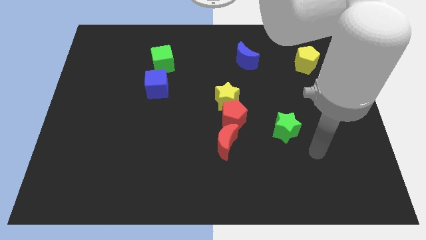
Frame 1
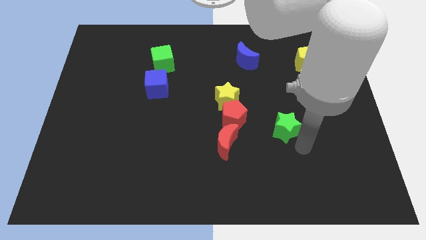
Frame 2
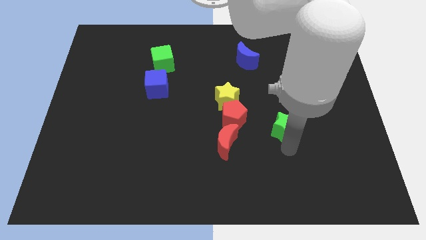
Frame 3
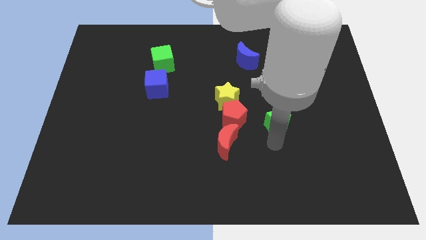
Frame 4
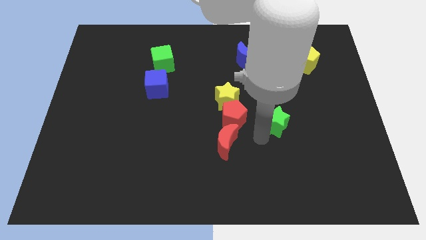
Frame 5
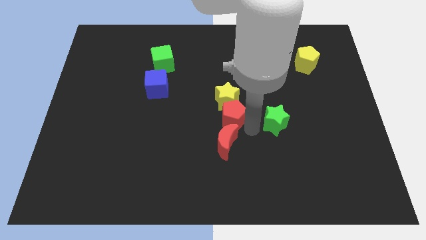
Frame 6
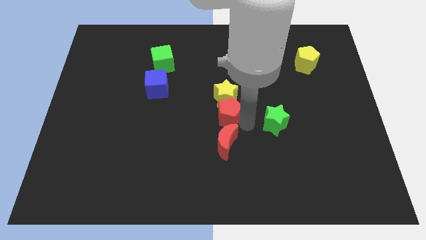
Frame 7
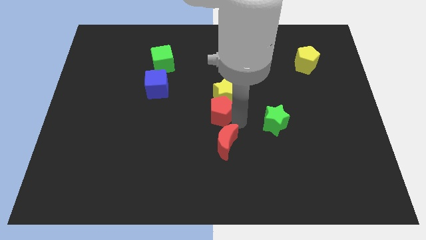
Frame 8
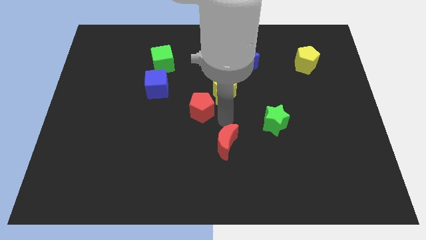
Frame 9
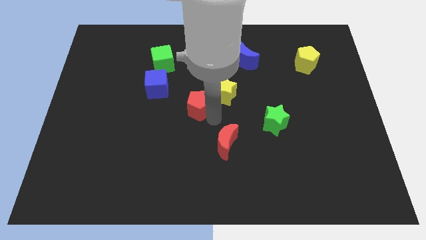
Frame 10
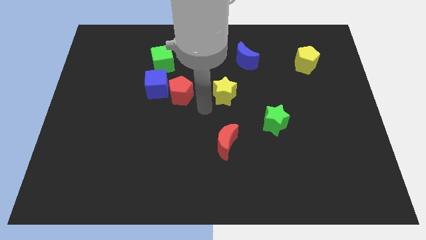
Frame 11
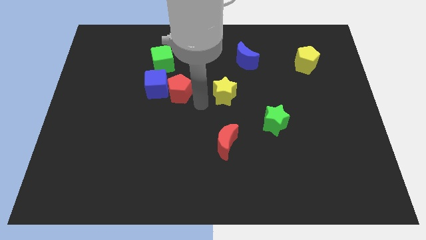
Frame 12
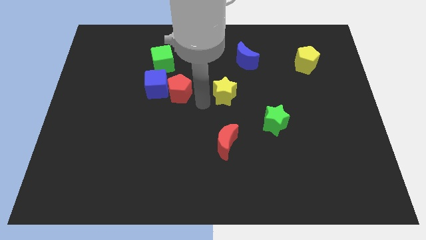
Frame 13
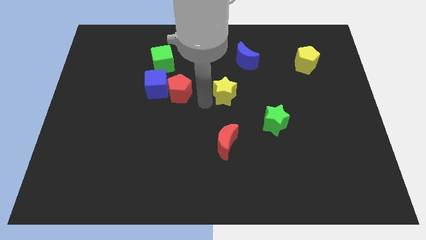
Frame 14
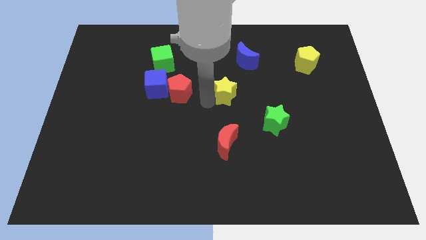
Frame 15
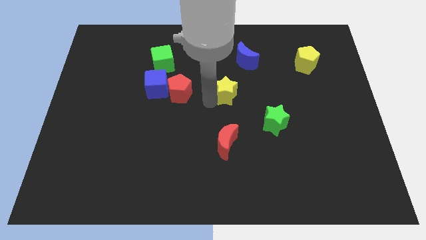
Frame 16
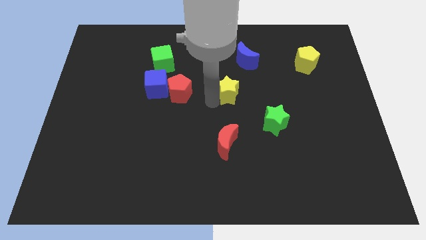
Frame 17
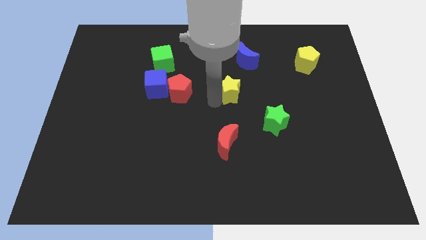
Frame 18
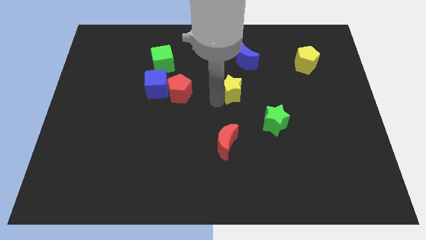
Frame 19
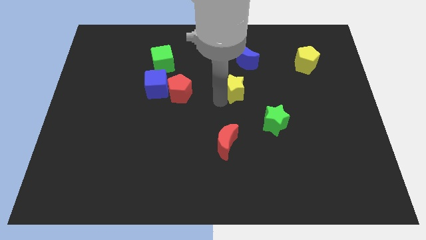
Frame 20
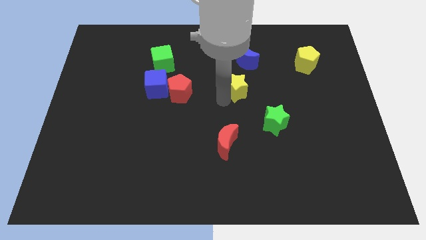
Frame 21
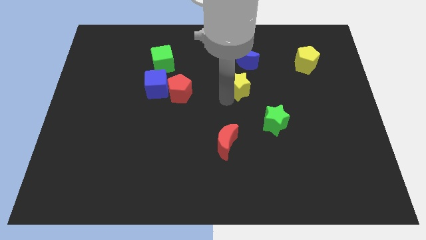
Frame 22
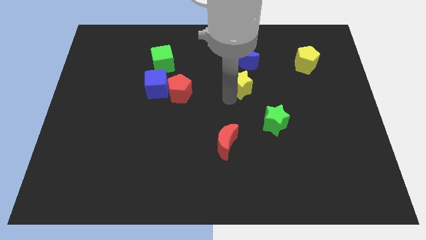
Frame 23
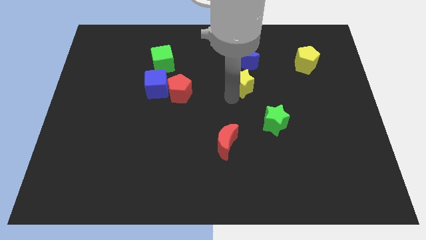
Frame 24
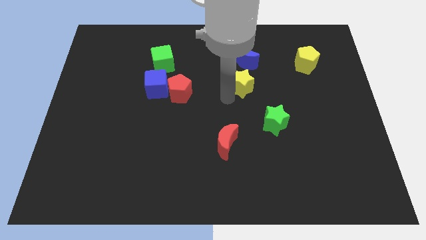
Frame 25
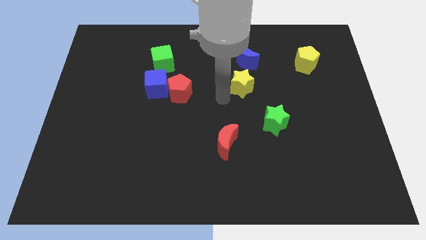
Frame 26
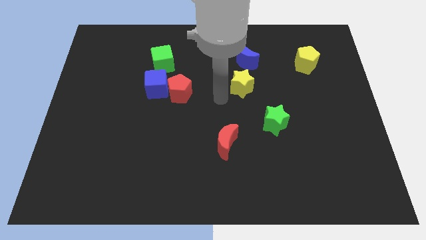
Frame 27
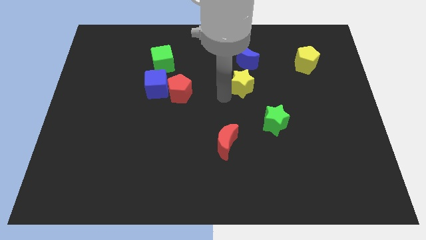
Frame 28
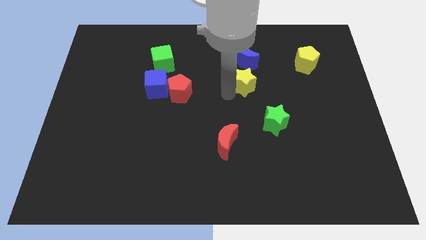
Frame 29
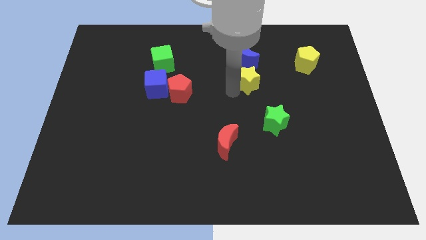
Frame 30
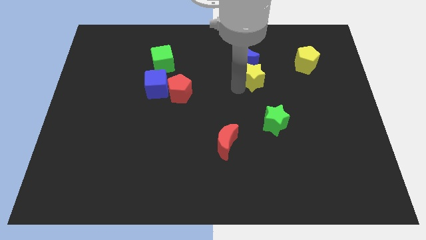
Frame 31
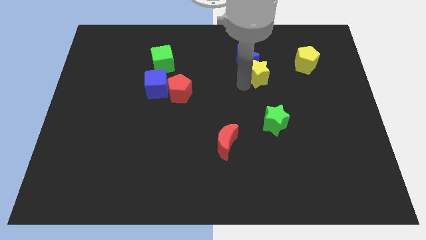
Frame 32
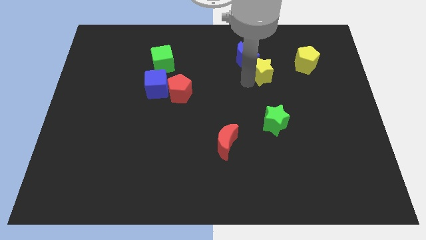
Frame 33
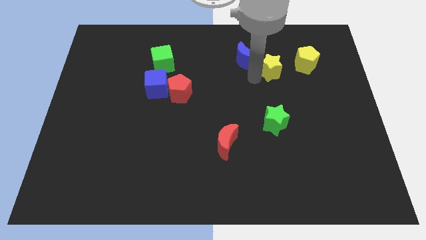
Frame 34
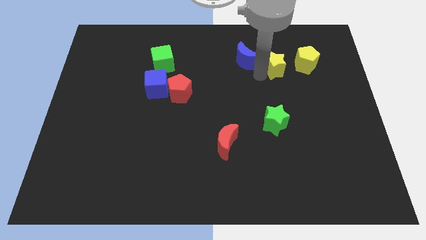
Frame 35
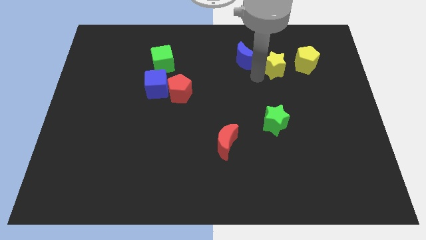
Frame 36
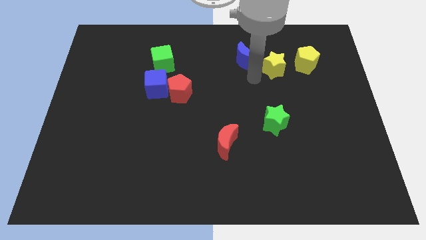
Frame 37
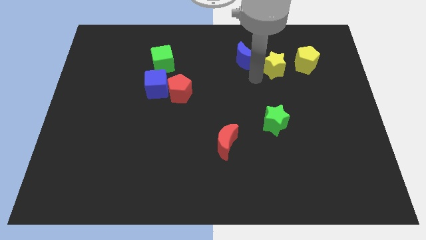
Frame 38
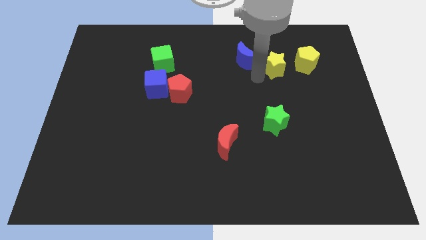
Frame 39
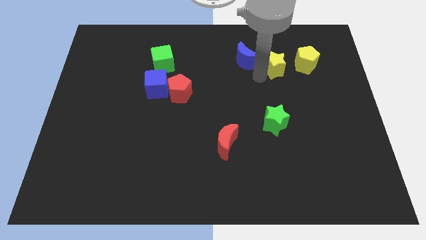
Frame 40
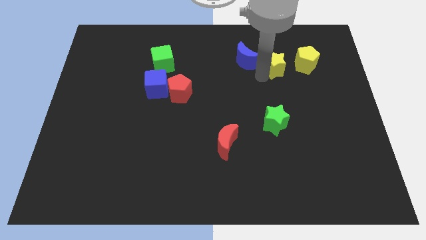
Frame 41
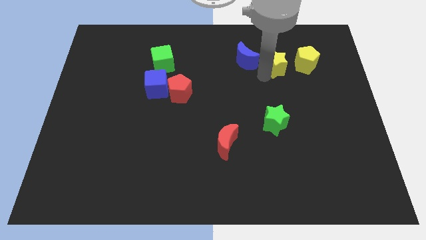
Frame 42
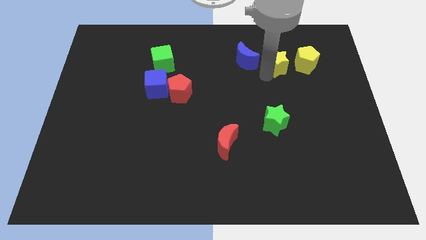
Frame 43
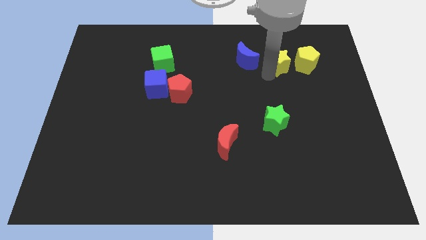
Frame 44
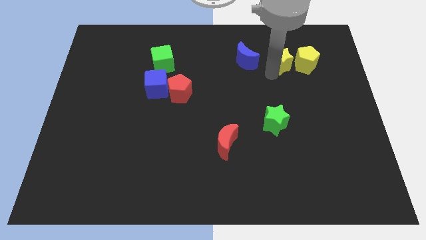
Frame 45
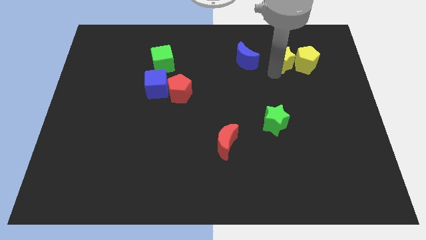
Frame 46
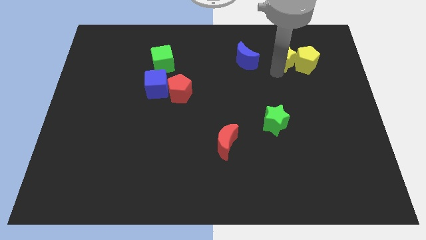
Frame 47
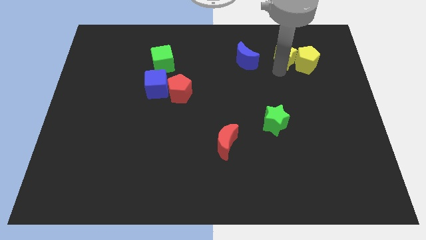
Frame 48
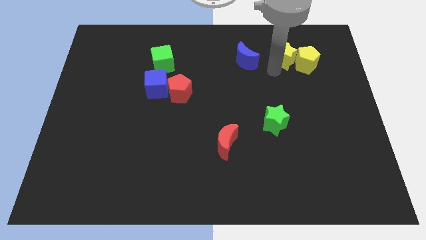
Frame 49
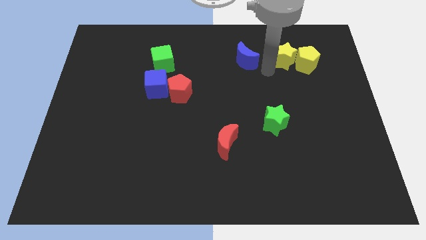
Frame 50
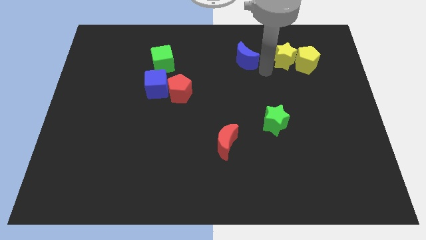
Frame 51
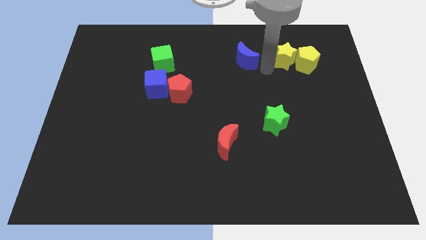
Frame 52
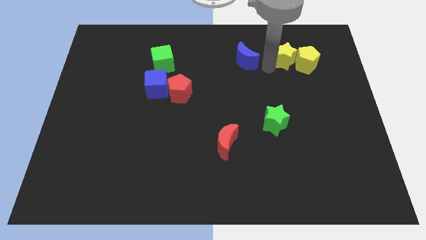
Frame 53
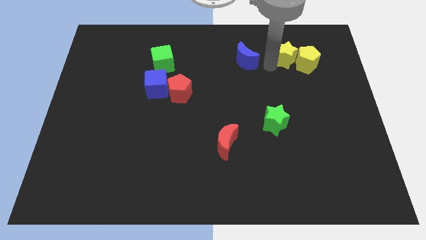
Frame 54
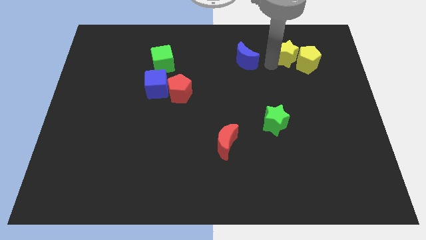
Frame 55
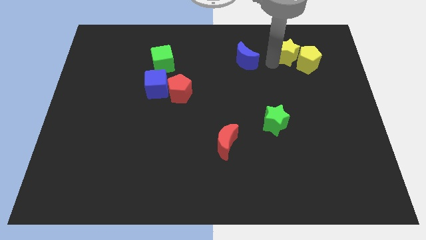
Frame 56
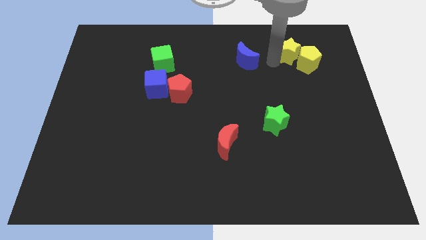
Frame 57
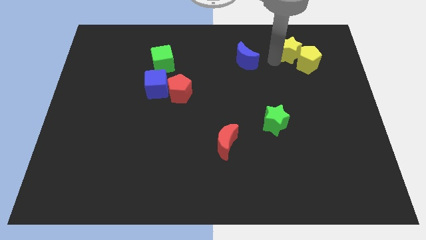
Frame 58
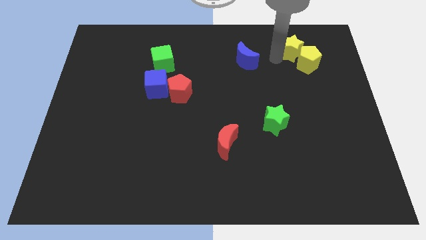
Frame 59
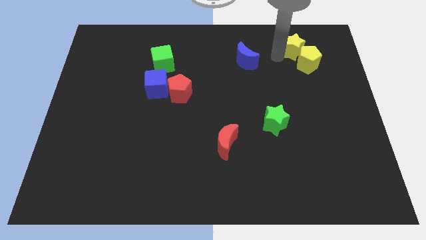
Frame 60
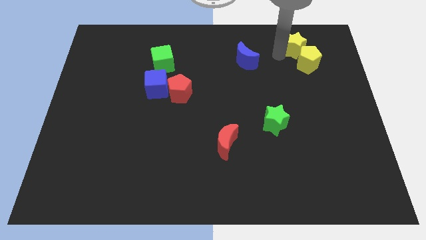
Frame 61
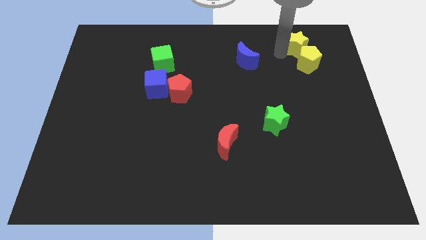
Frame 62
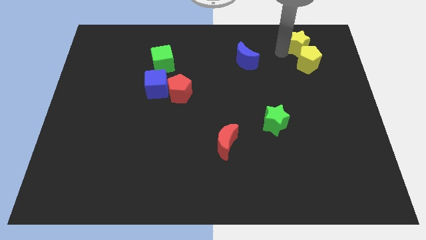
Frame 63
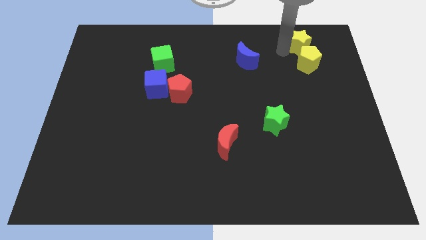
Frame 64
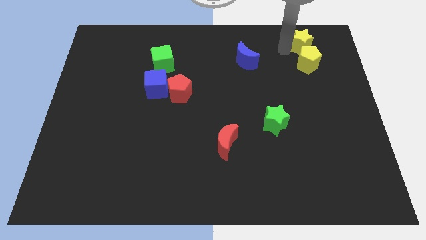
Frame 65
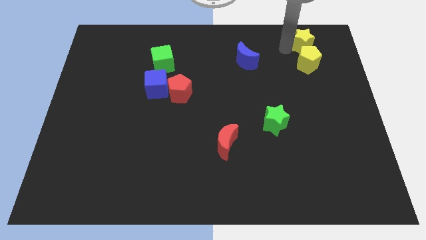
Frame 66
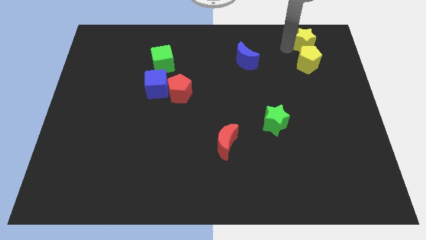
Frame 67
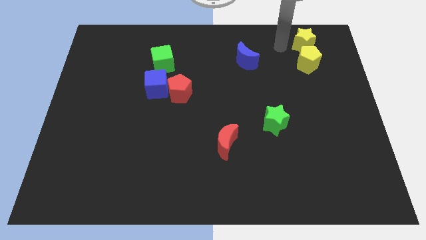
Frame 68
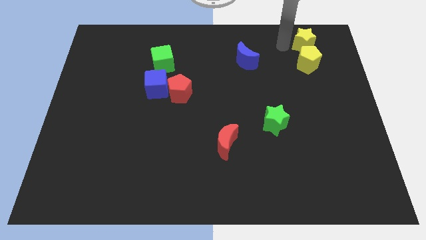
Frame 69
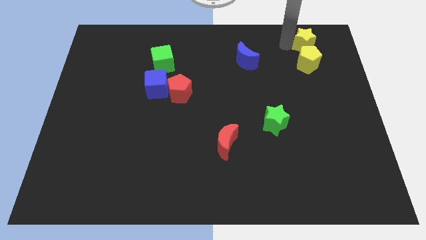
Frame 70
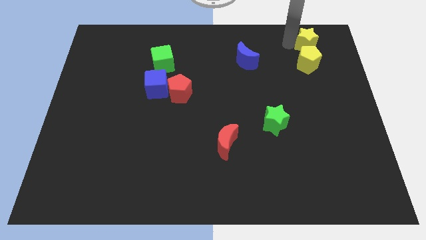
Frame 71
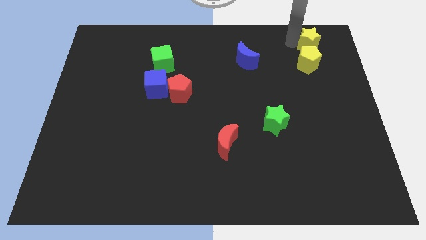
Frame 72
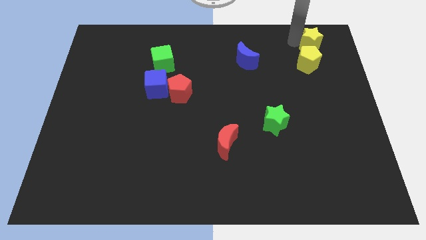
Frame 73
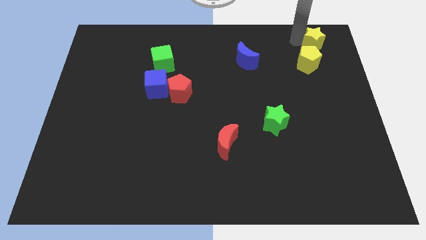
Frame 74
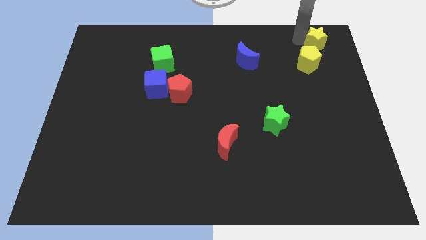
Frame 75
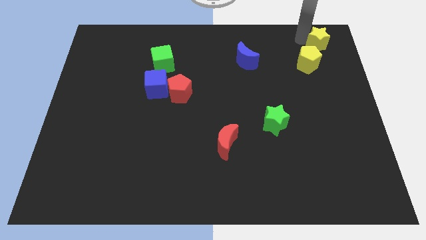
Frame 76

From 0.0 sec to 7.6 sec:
push the yellow star to the top right of the board
